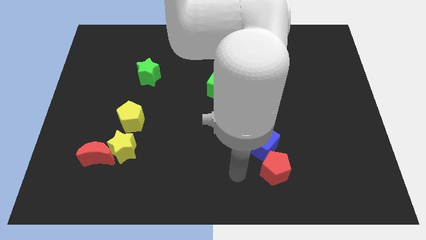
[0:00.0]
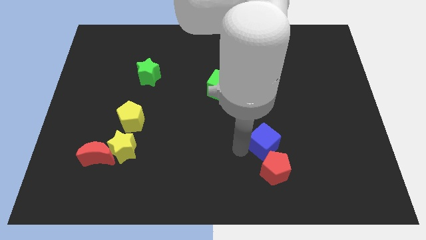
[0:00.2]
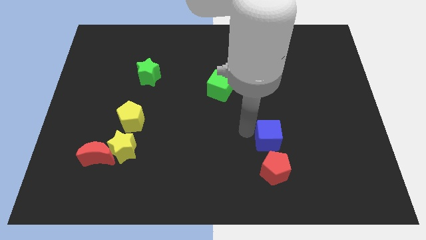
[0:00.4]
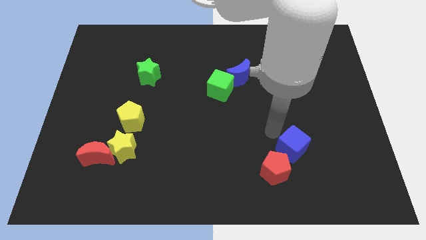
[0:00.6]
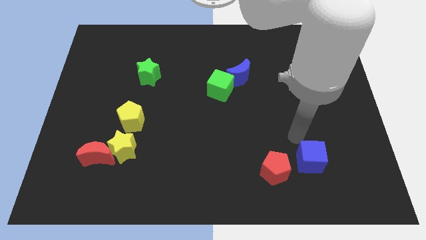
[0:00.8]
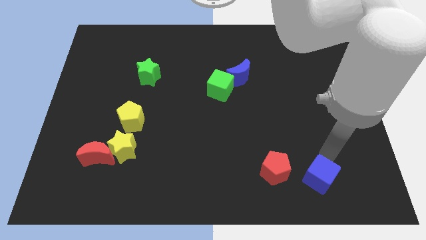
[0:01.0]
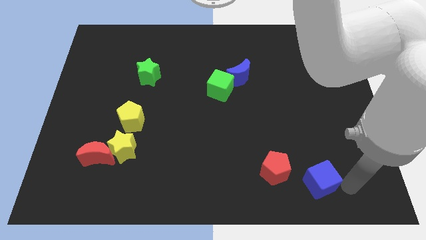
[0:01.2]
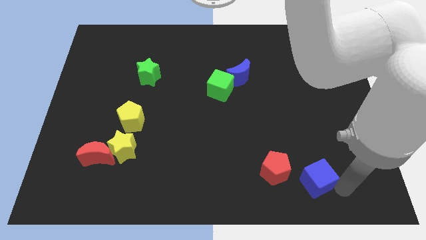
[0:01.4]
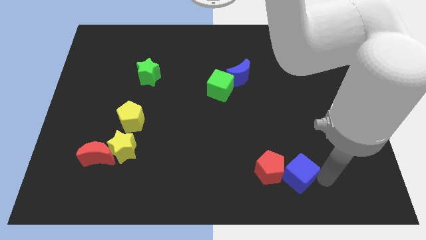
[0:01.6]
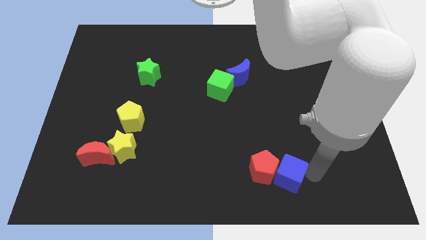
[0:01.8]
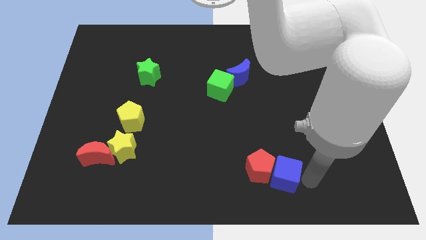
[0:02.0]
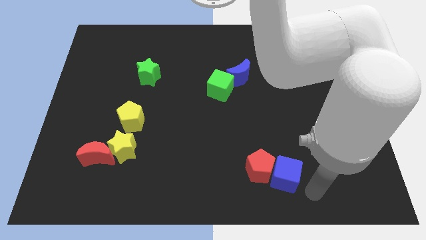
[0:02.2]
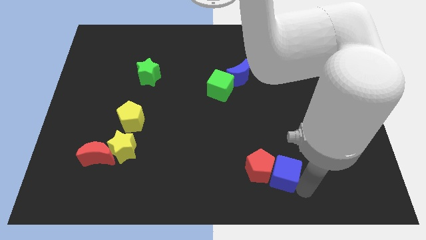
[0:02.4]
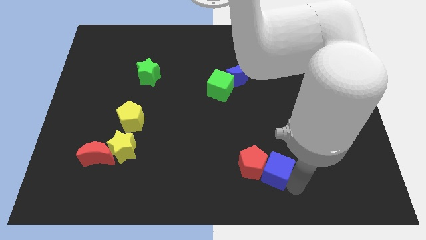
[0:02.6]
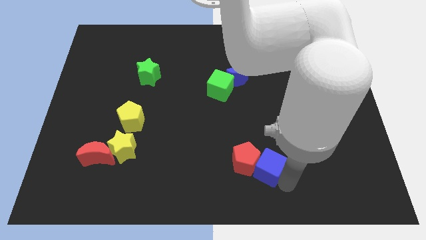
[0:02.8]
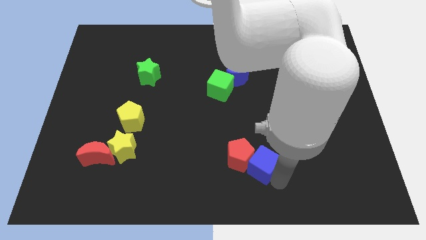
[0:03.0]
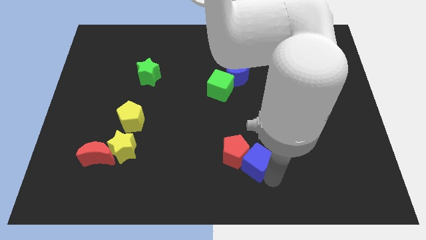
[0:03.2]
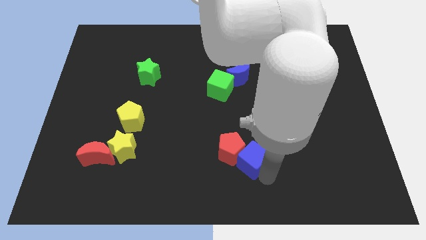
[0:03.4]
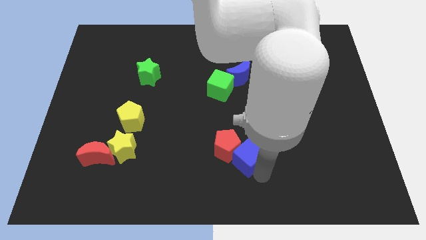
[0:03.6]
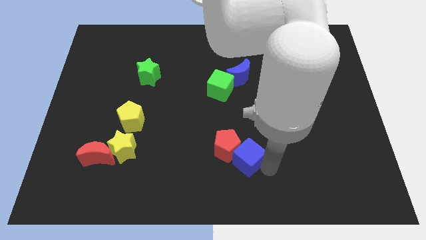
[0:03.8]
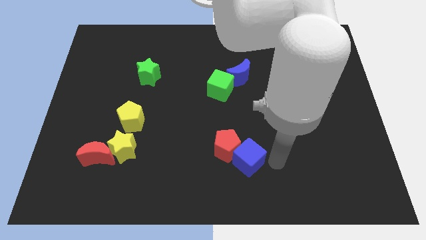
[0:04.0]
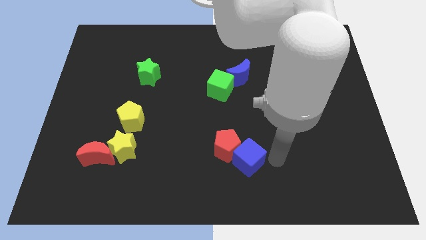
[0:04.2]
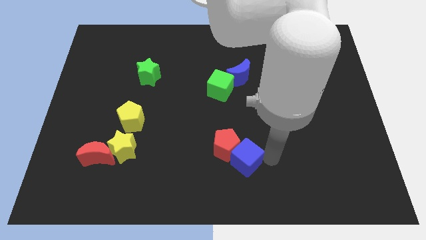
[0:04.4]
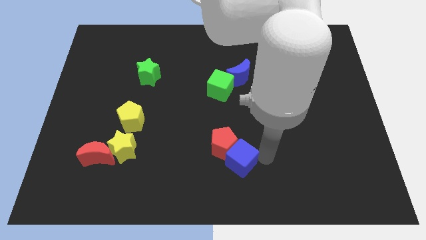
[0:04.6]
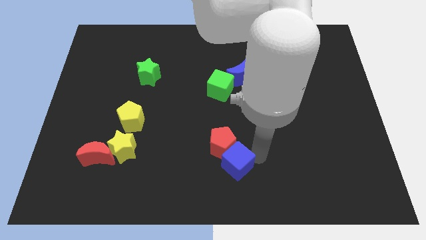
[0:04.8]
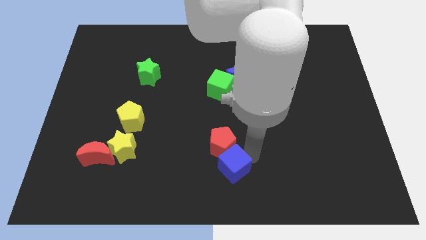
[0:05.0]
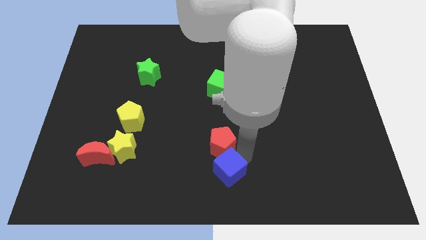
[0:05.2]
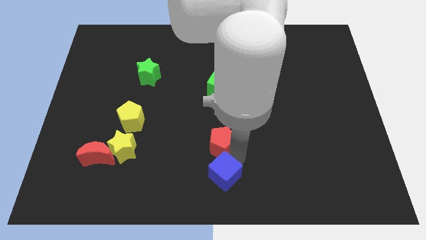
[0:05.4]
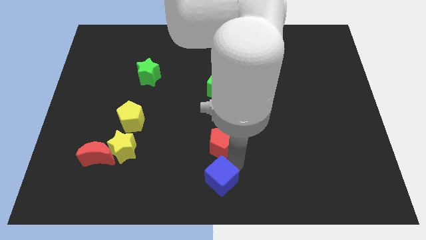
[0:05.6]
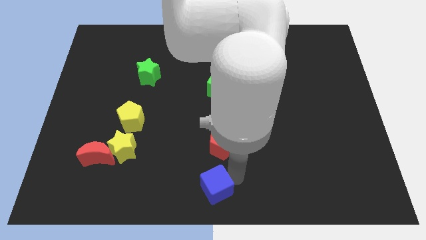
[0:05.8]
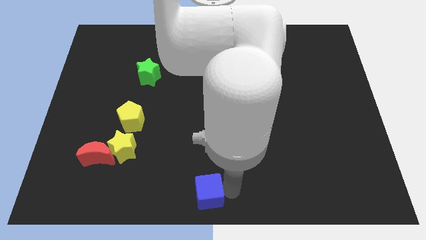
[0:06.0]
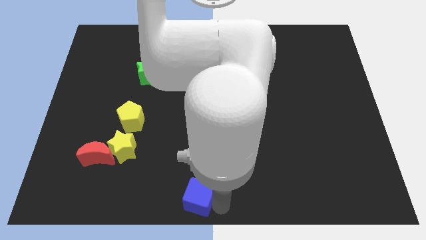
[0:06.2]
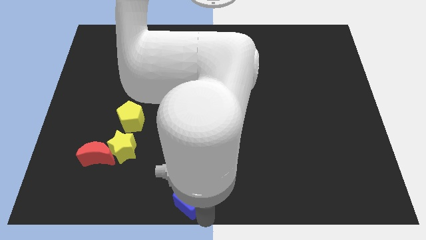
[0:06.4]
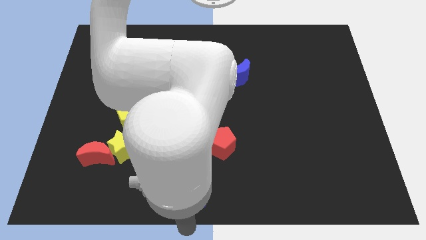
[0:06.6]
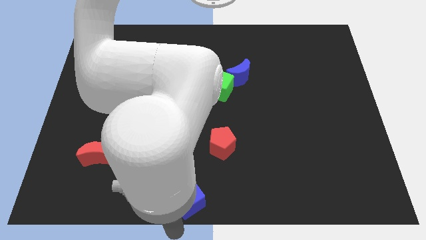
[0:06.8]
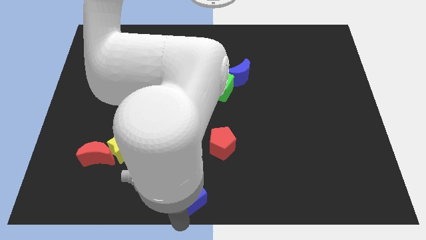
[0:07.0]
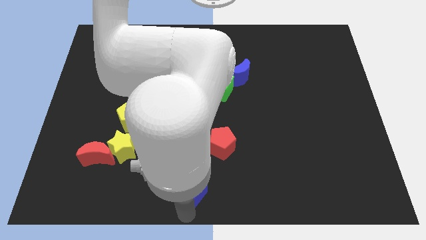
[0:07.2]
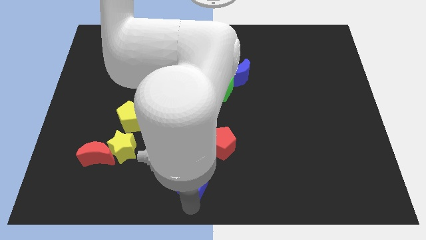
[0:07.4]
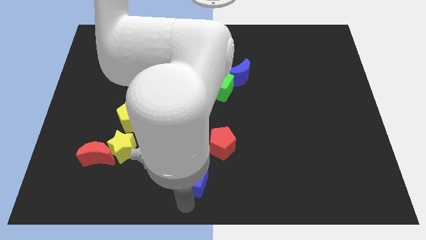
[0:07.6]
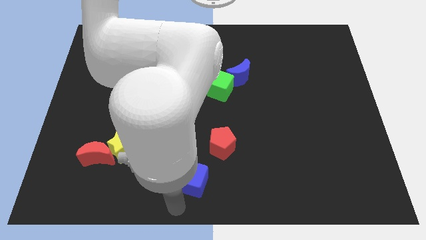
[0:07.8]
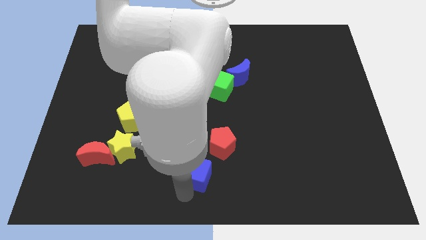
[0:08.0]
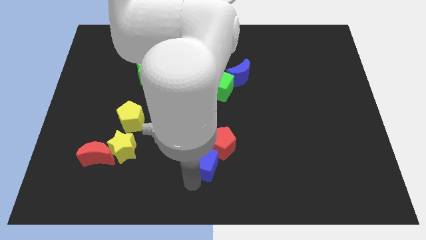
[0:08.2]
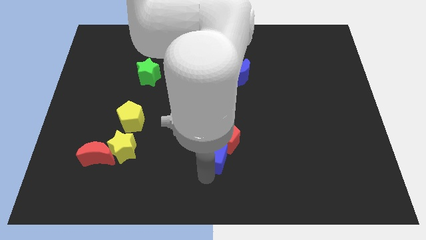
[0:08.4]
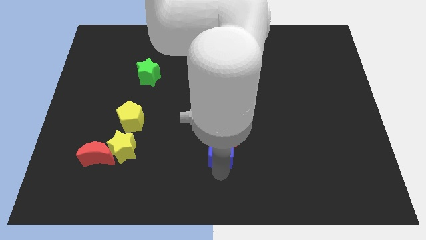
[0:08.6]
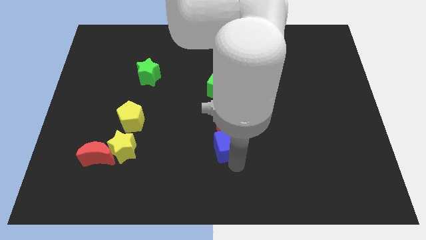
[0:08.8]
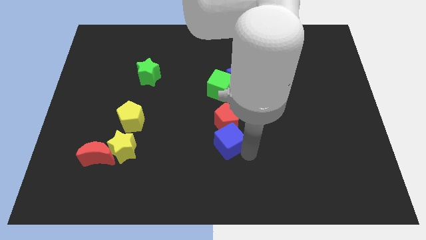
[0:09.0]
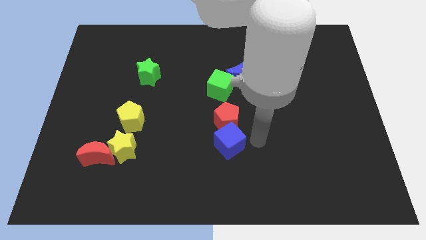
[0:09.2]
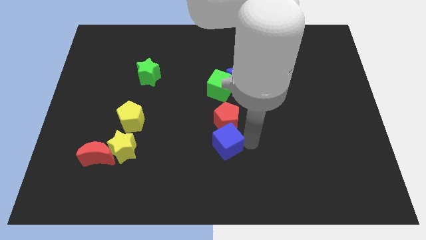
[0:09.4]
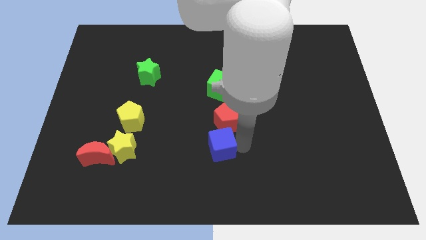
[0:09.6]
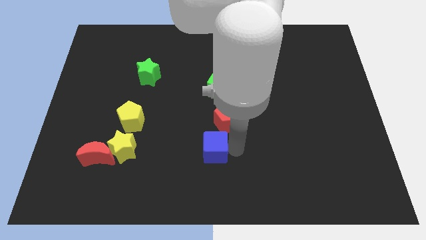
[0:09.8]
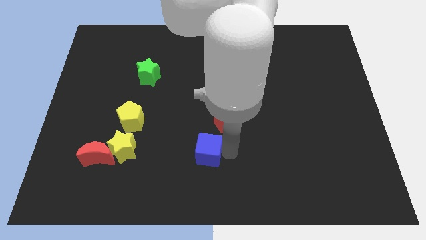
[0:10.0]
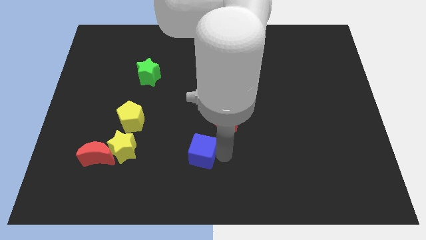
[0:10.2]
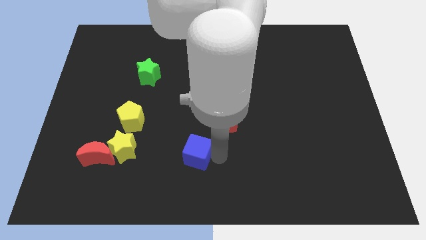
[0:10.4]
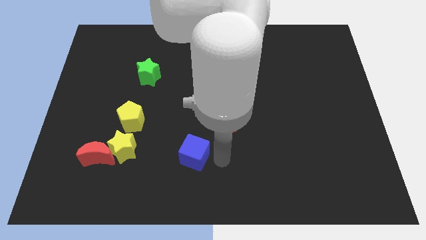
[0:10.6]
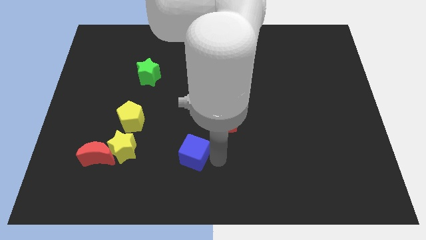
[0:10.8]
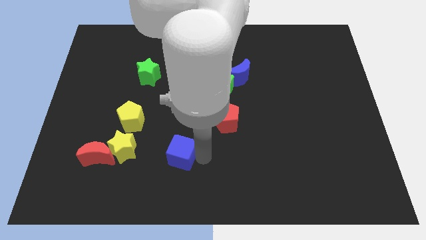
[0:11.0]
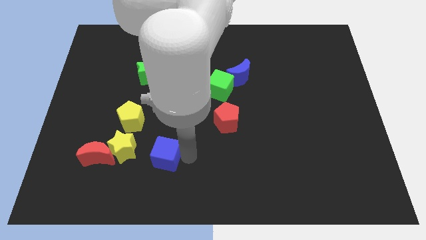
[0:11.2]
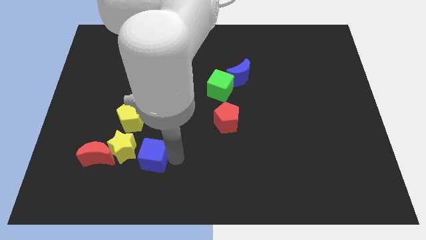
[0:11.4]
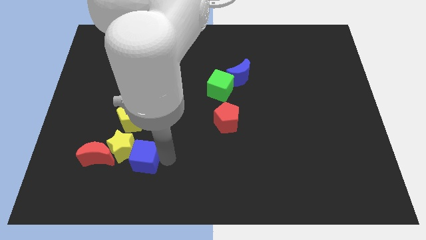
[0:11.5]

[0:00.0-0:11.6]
slide the blue cube to the yellow star

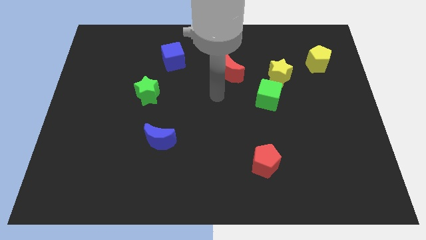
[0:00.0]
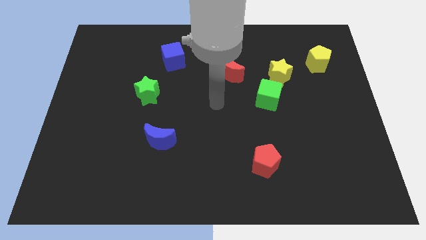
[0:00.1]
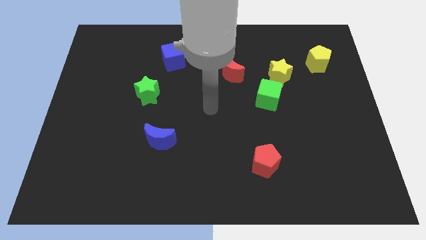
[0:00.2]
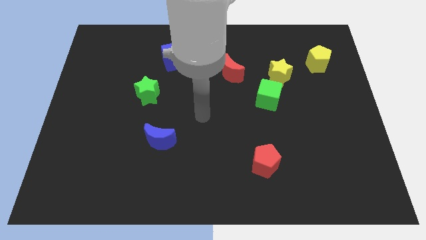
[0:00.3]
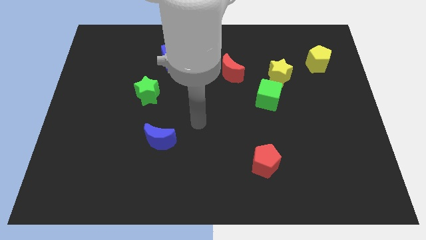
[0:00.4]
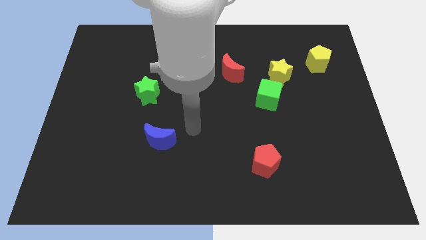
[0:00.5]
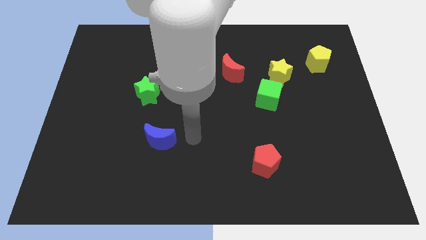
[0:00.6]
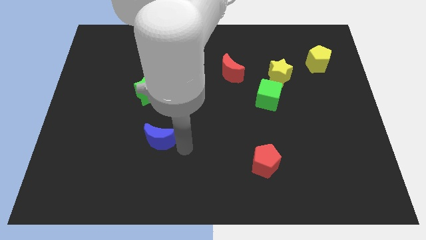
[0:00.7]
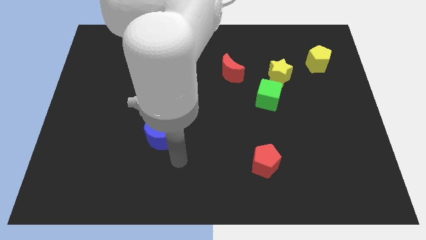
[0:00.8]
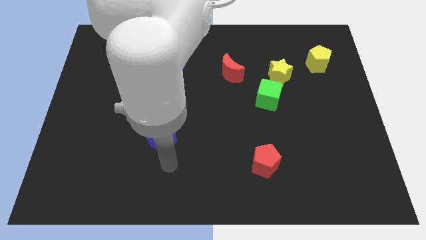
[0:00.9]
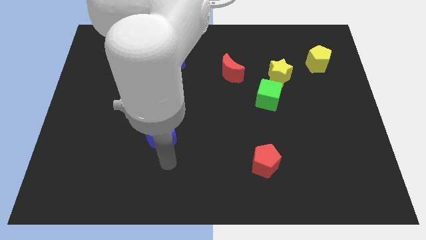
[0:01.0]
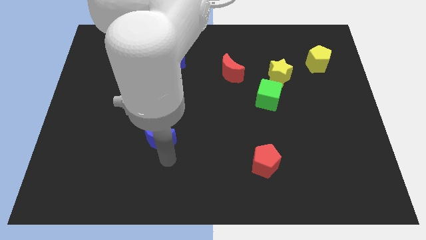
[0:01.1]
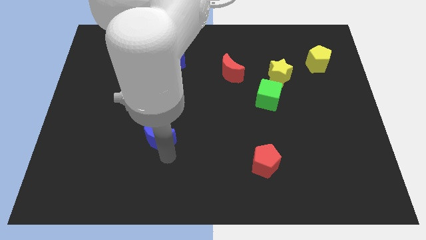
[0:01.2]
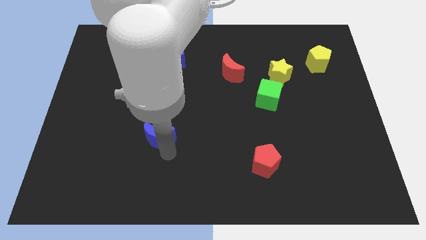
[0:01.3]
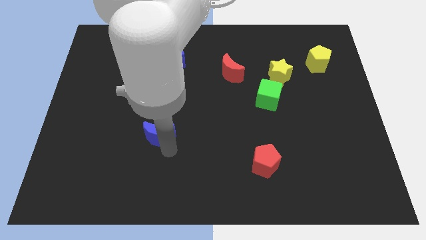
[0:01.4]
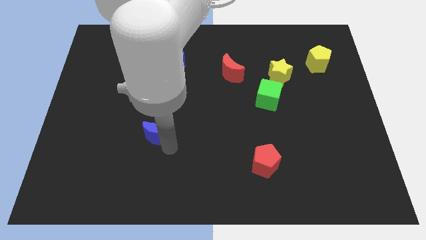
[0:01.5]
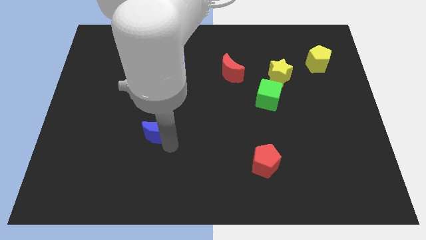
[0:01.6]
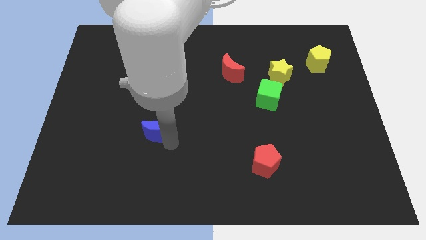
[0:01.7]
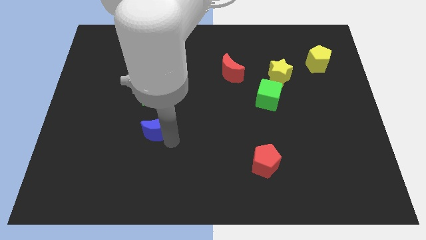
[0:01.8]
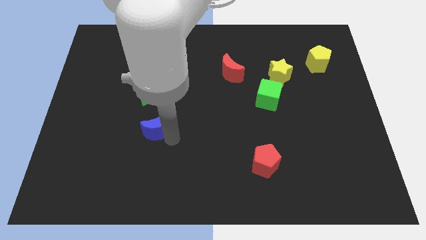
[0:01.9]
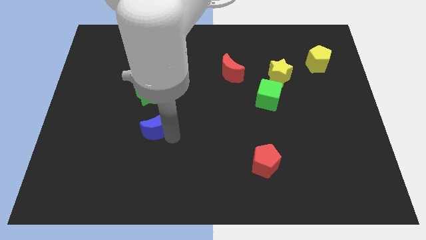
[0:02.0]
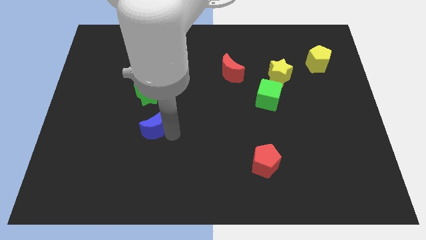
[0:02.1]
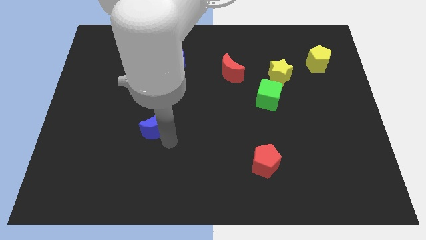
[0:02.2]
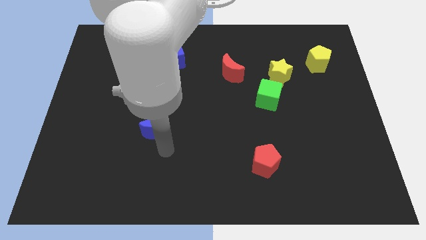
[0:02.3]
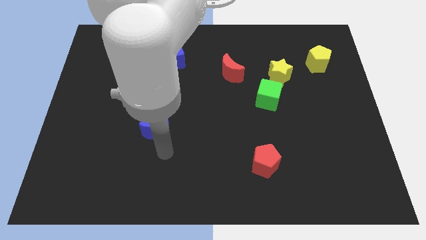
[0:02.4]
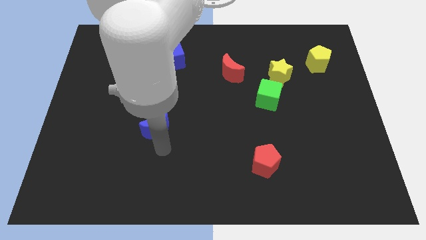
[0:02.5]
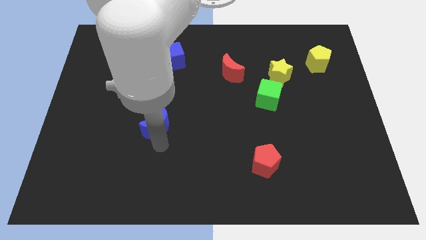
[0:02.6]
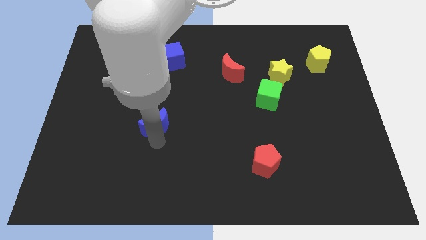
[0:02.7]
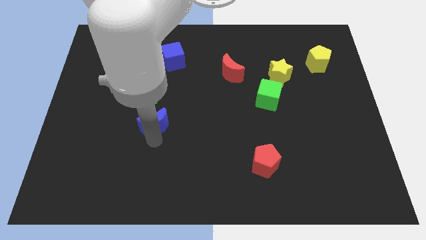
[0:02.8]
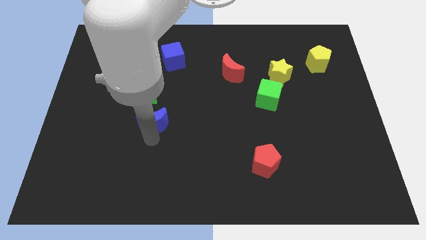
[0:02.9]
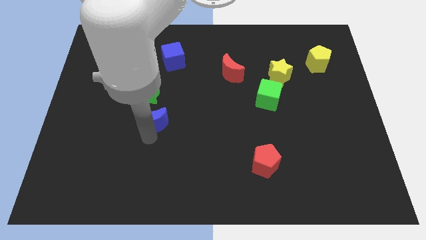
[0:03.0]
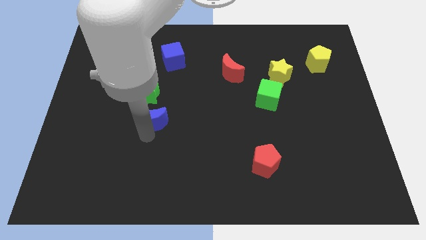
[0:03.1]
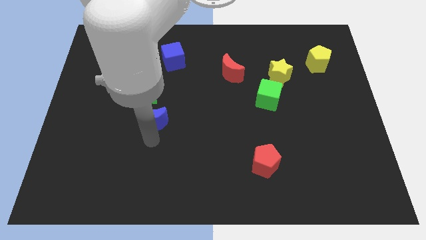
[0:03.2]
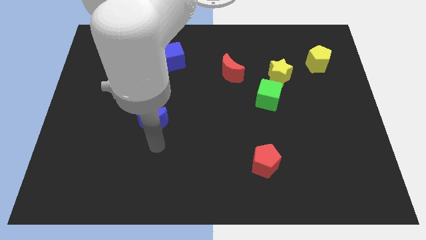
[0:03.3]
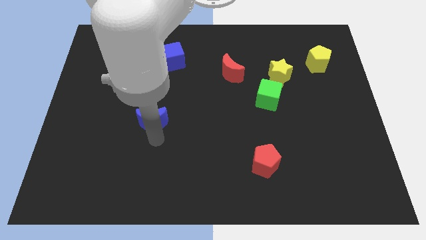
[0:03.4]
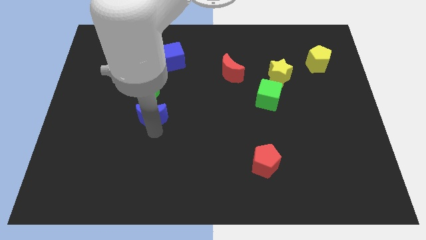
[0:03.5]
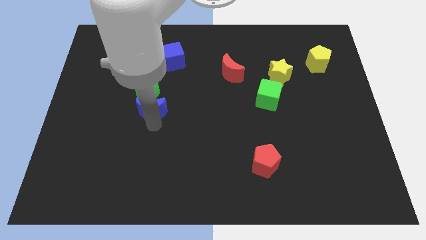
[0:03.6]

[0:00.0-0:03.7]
move the blue moon to the green star
